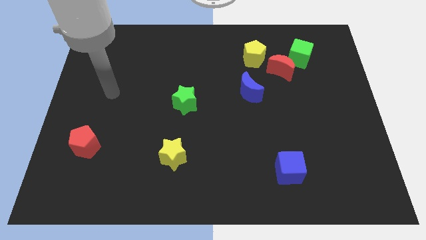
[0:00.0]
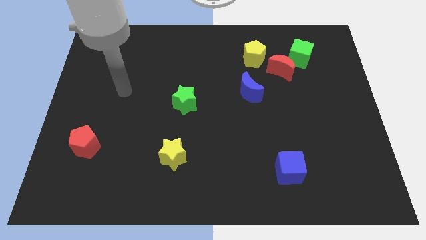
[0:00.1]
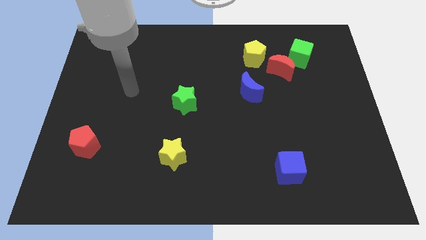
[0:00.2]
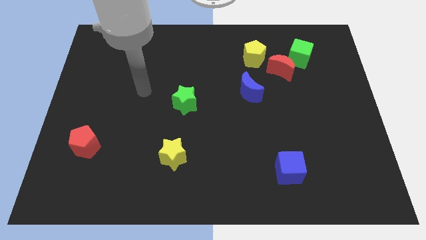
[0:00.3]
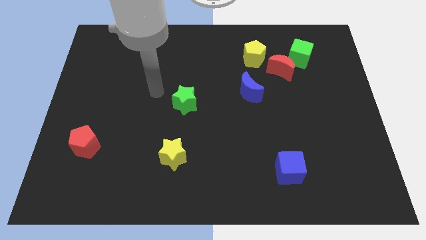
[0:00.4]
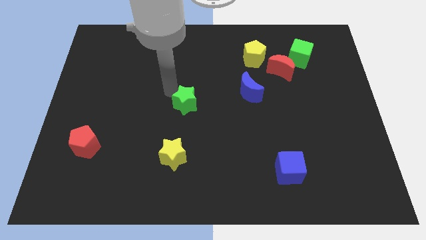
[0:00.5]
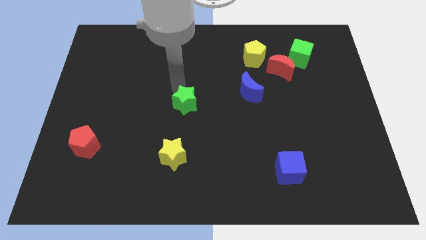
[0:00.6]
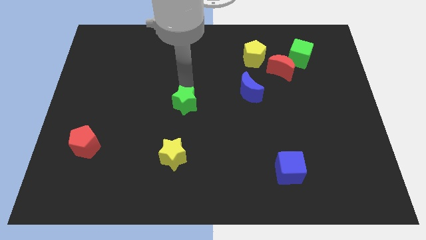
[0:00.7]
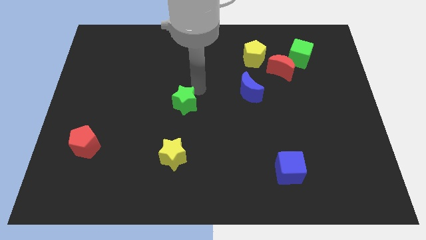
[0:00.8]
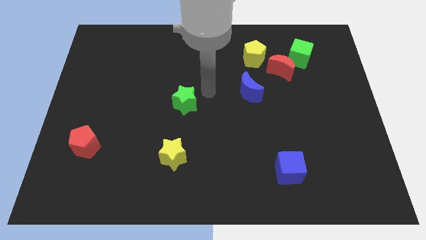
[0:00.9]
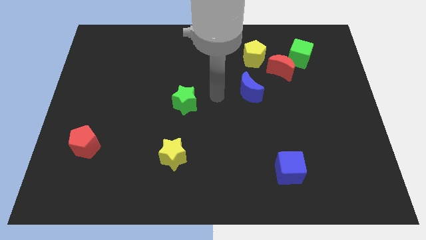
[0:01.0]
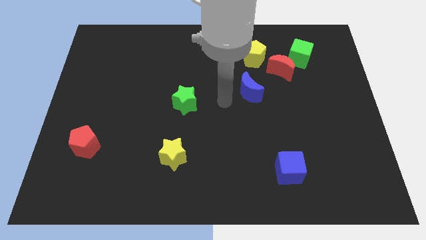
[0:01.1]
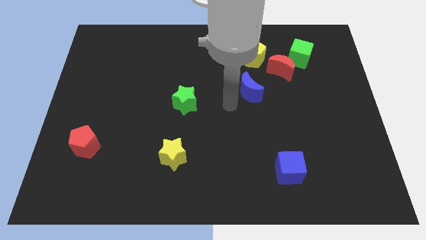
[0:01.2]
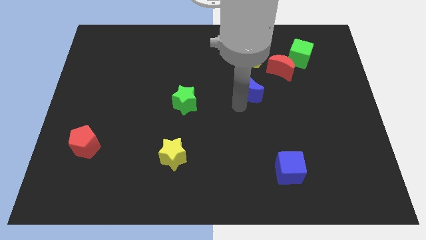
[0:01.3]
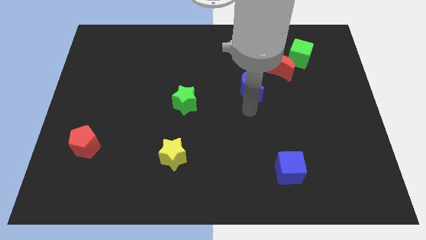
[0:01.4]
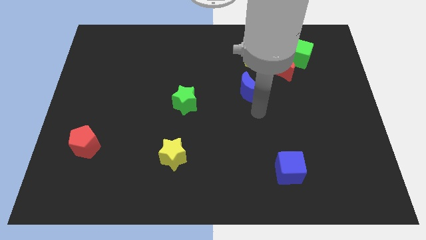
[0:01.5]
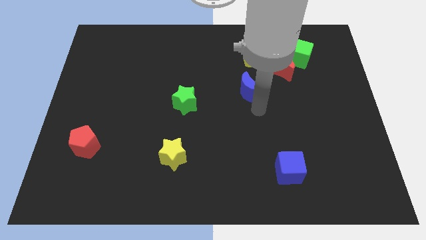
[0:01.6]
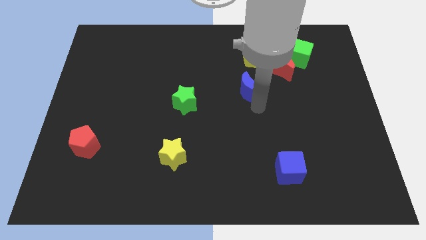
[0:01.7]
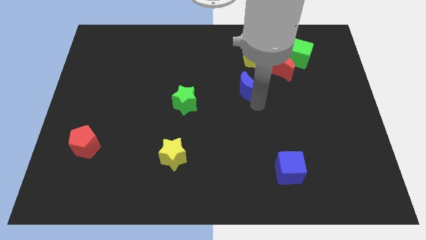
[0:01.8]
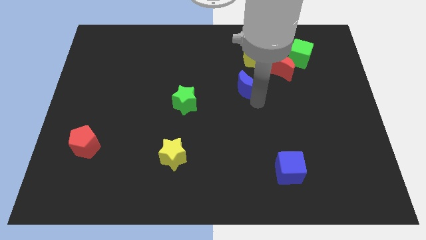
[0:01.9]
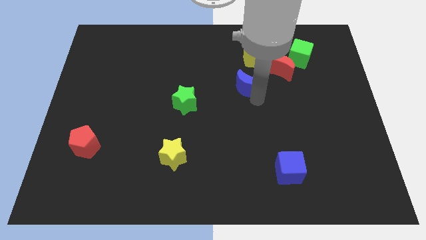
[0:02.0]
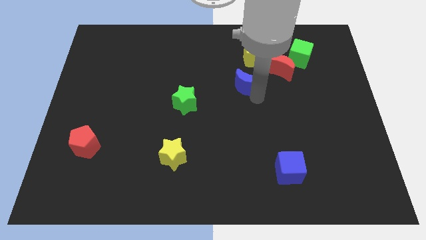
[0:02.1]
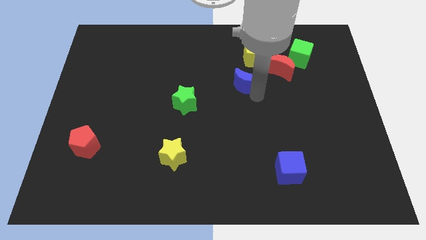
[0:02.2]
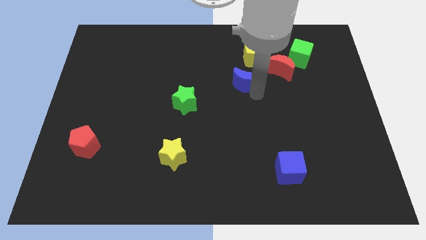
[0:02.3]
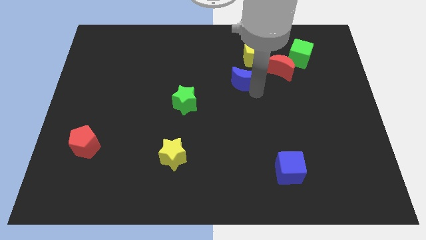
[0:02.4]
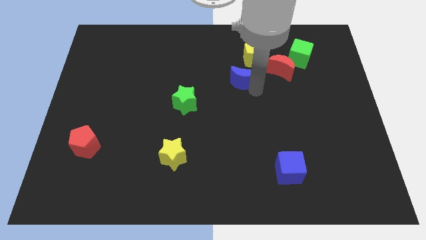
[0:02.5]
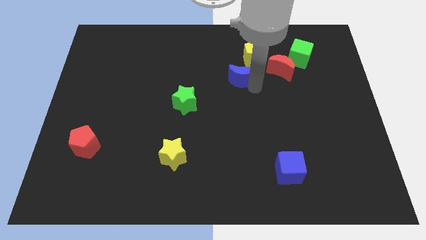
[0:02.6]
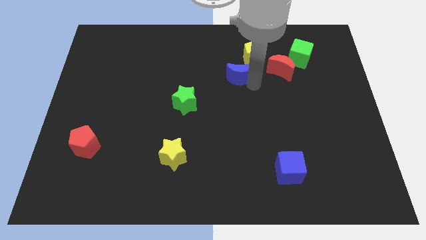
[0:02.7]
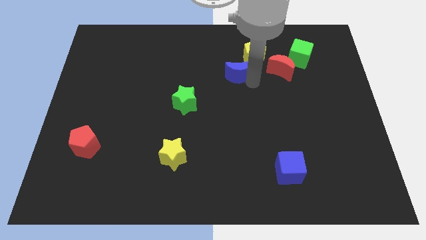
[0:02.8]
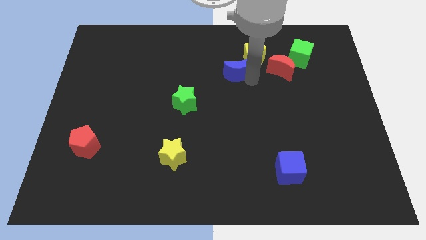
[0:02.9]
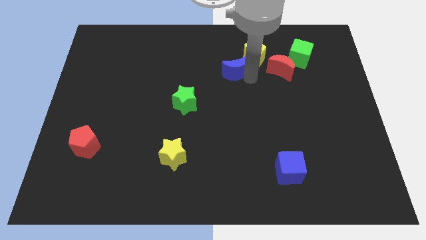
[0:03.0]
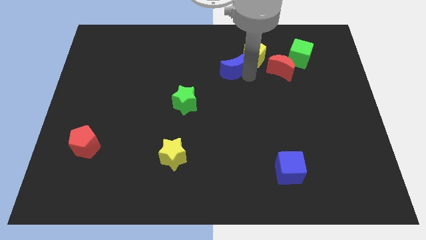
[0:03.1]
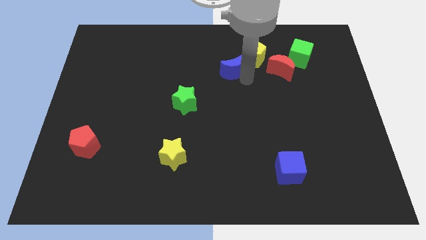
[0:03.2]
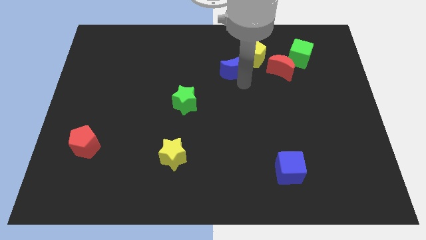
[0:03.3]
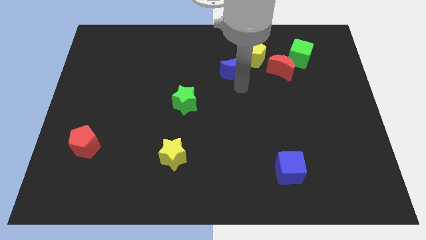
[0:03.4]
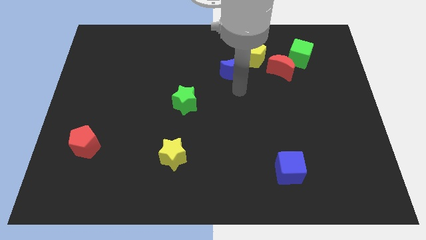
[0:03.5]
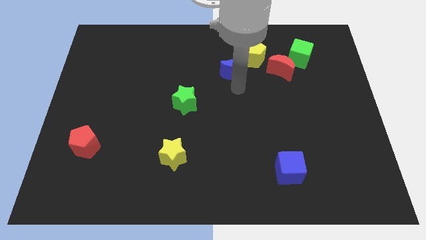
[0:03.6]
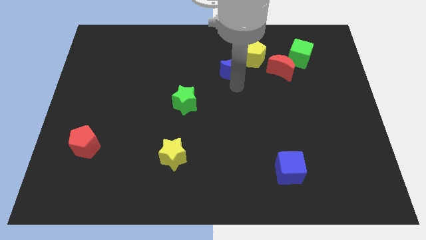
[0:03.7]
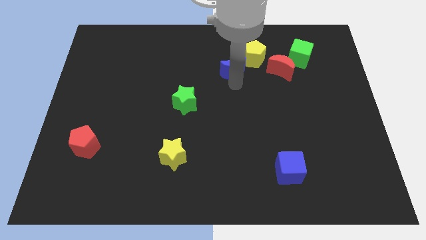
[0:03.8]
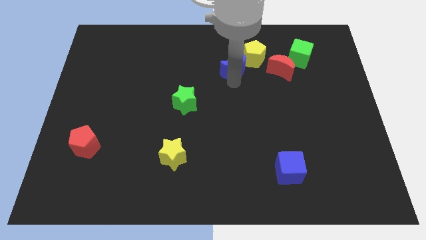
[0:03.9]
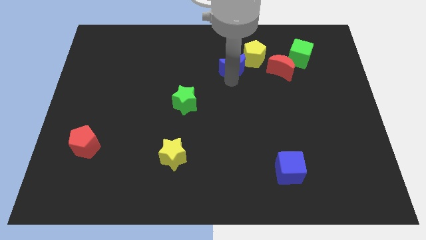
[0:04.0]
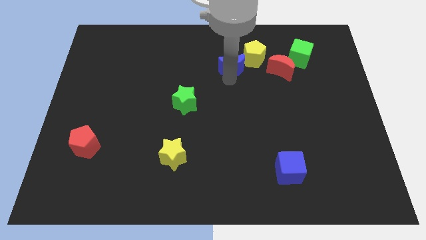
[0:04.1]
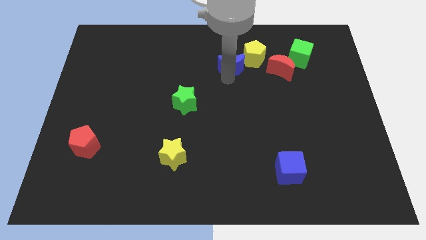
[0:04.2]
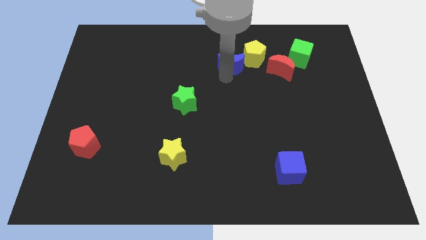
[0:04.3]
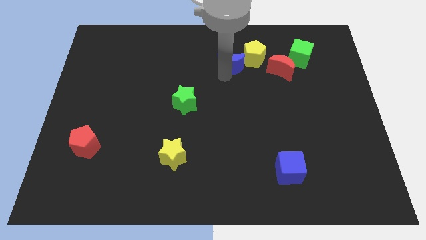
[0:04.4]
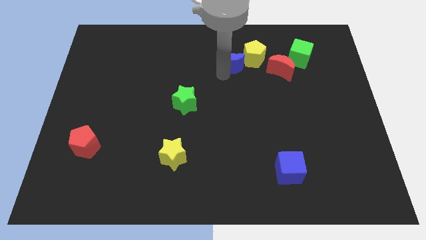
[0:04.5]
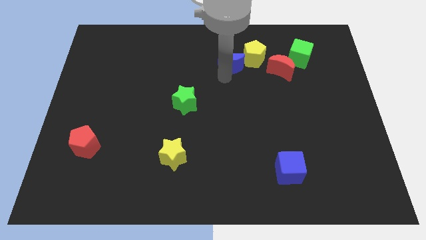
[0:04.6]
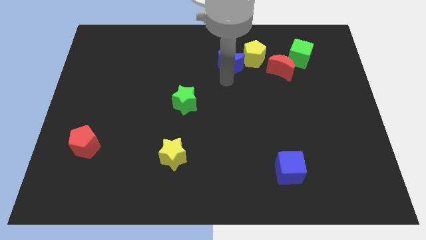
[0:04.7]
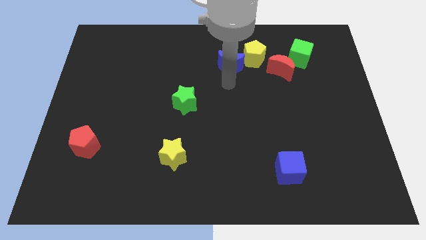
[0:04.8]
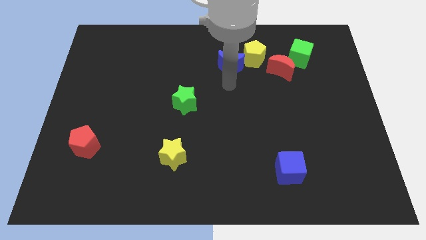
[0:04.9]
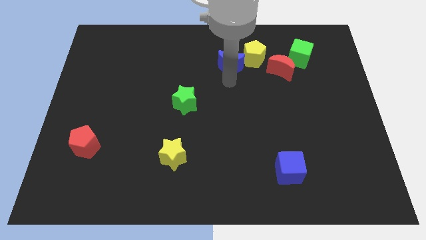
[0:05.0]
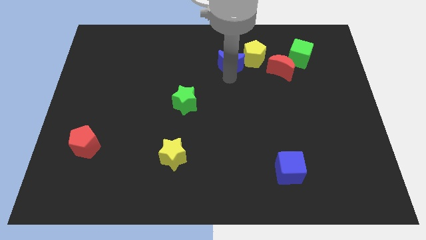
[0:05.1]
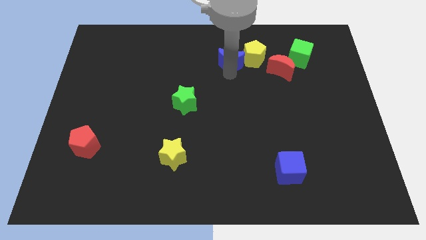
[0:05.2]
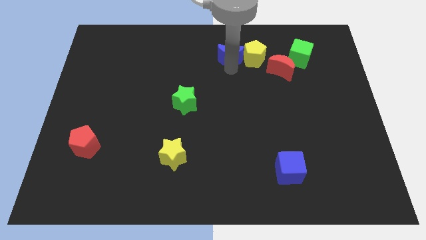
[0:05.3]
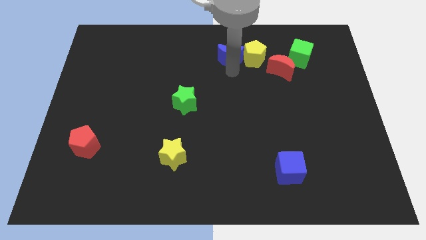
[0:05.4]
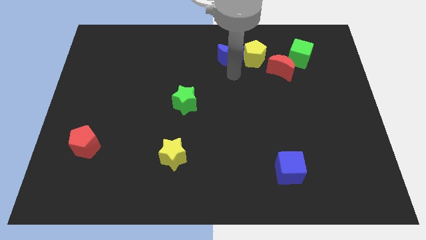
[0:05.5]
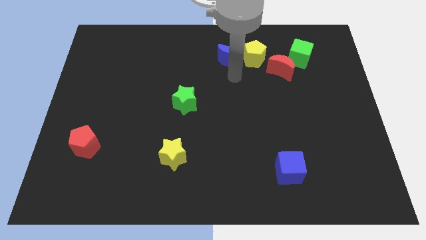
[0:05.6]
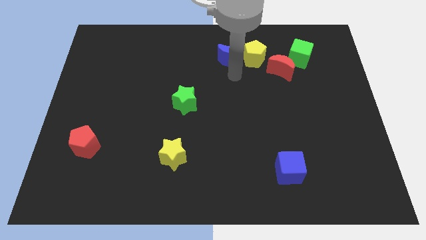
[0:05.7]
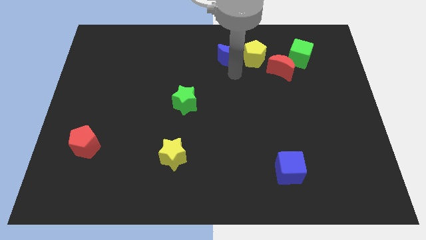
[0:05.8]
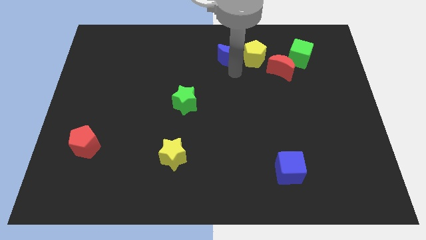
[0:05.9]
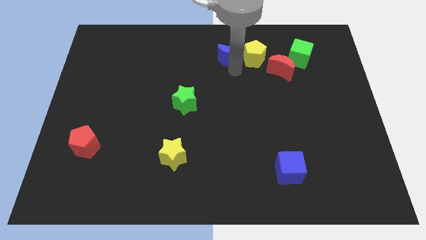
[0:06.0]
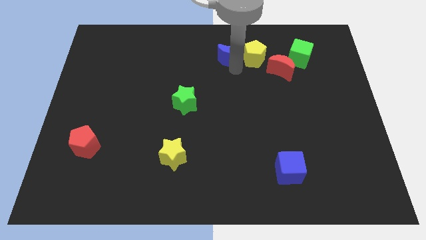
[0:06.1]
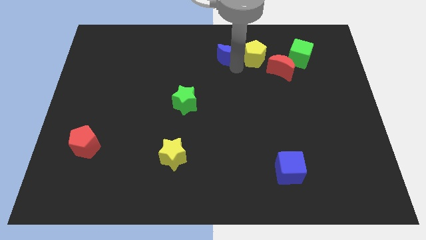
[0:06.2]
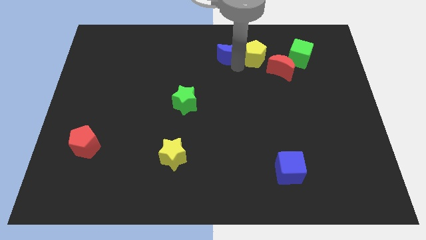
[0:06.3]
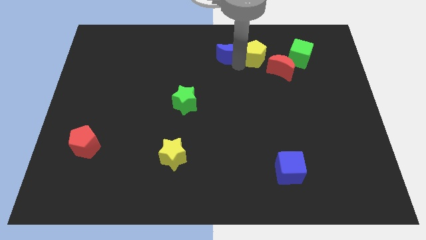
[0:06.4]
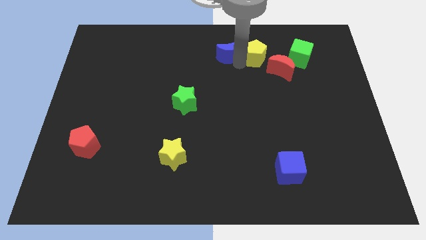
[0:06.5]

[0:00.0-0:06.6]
put the blue moon to the top
